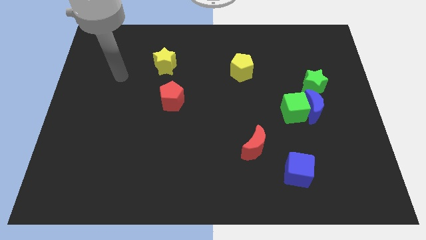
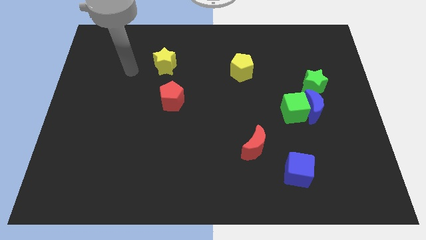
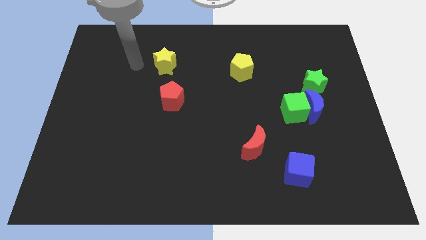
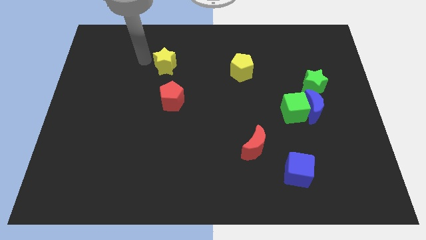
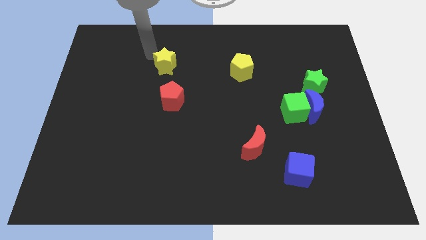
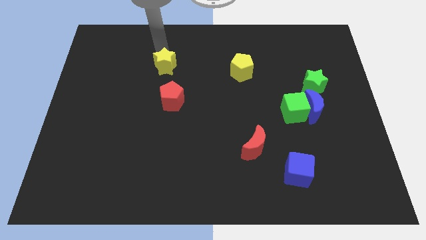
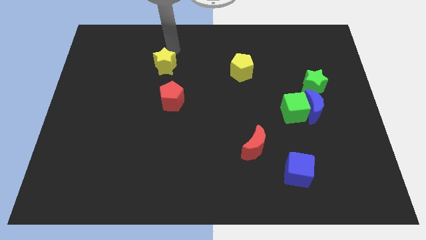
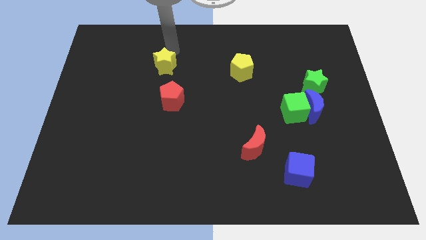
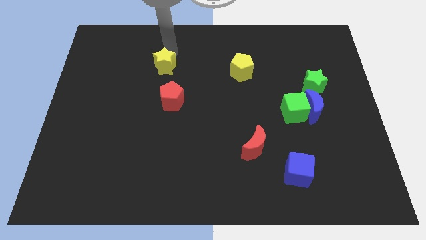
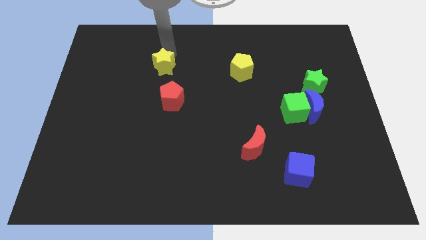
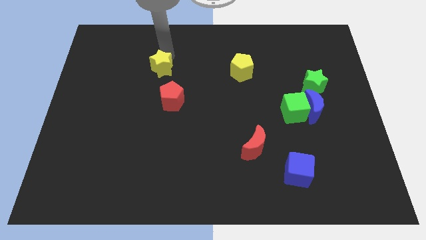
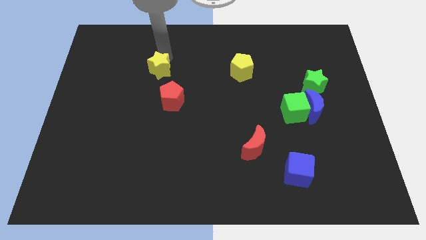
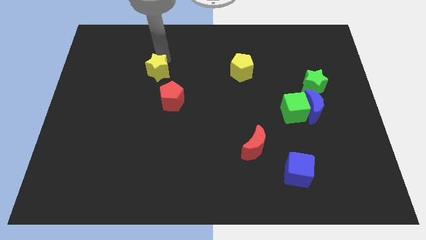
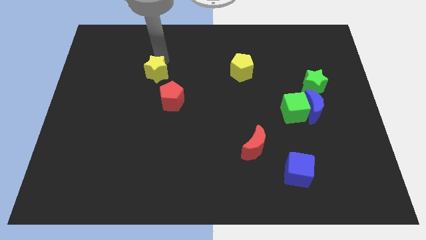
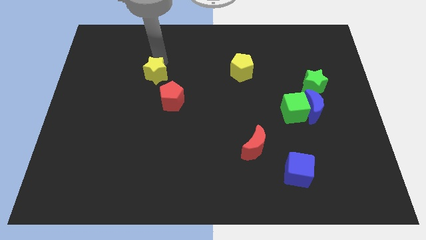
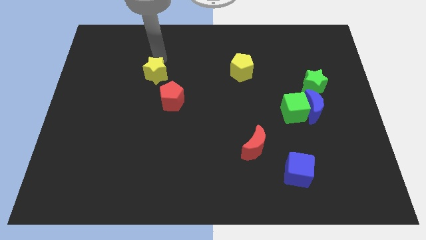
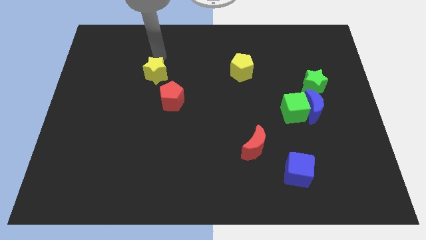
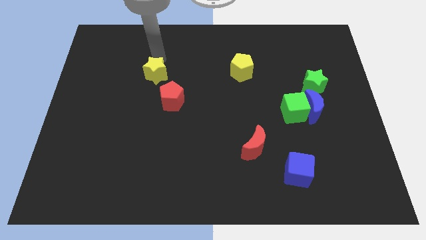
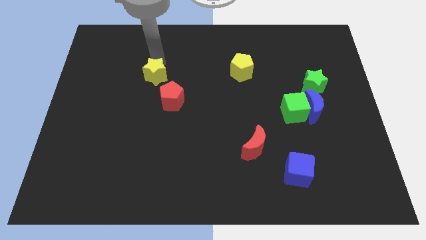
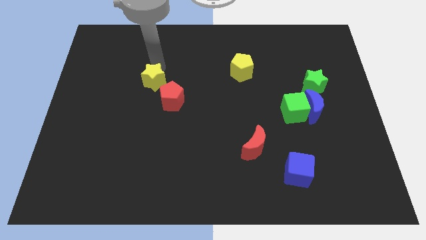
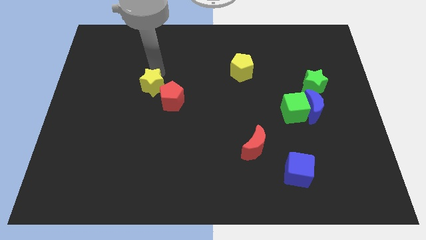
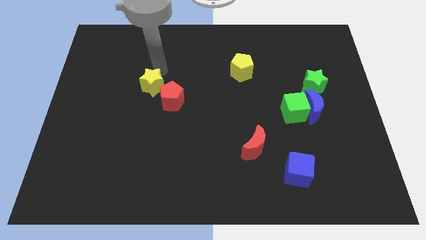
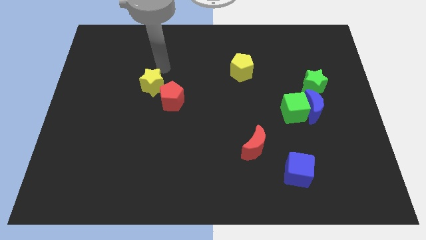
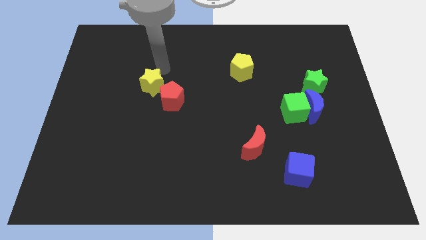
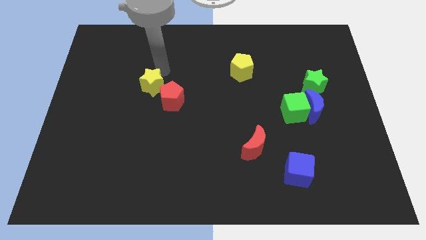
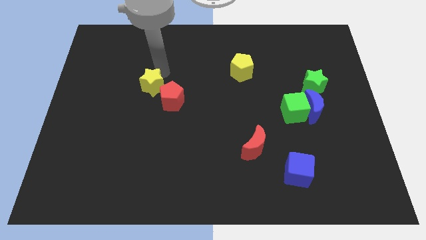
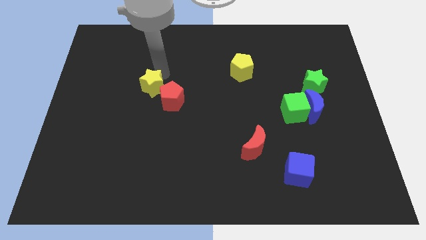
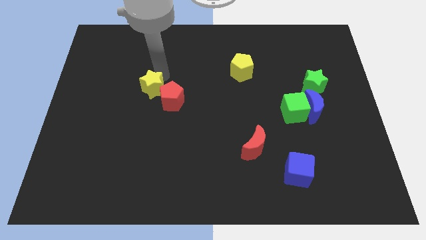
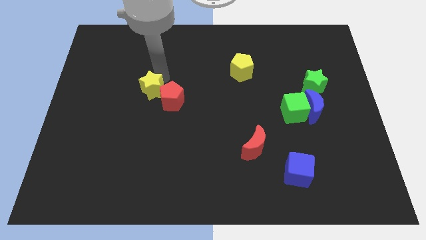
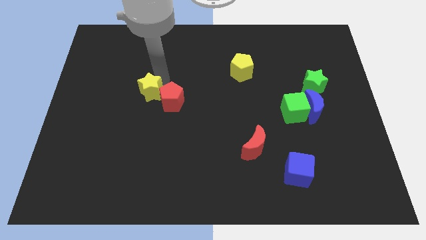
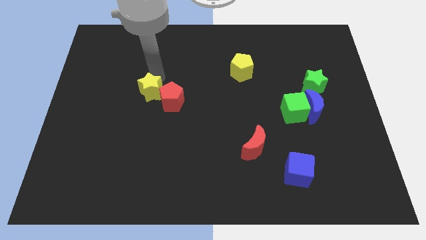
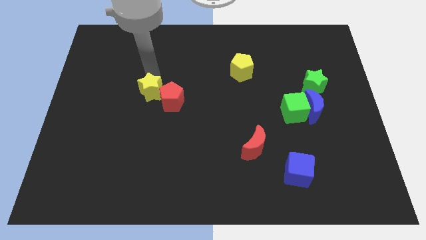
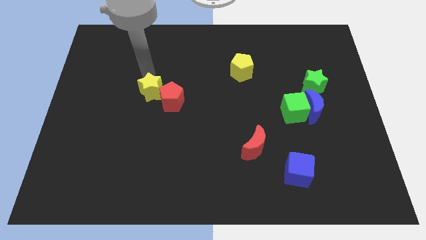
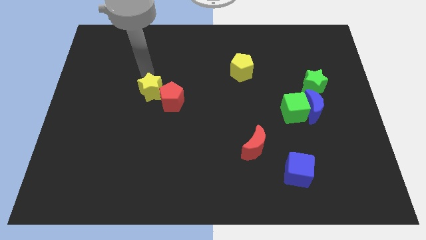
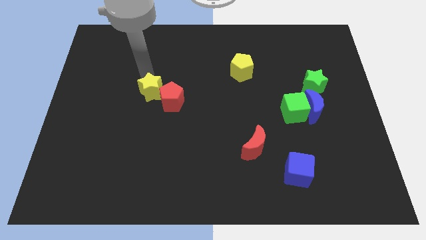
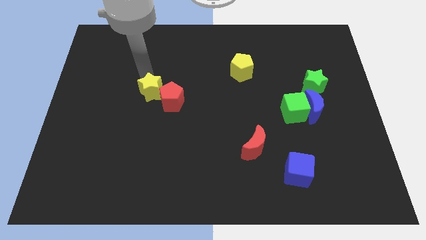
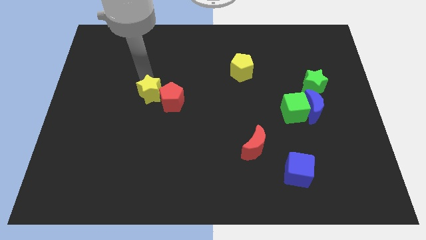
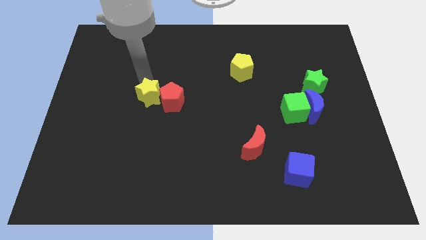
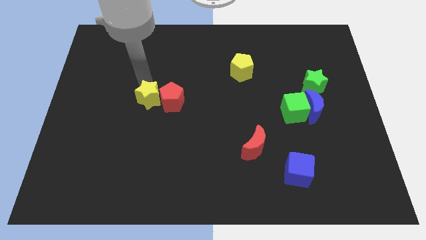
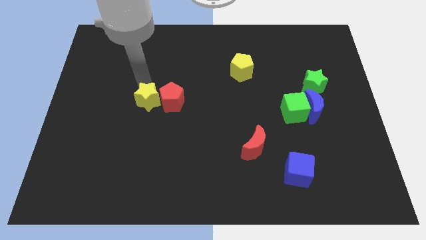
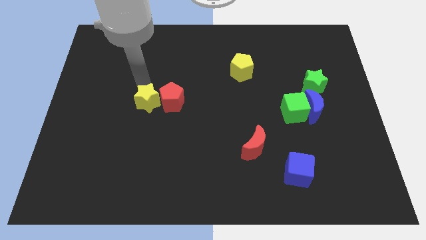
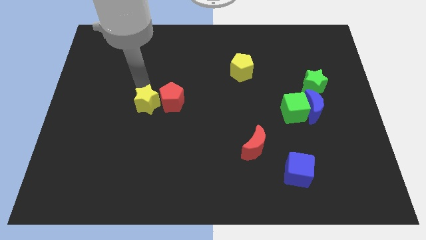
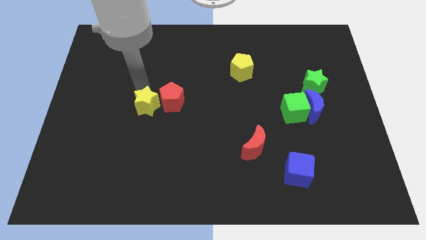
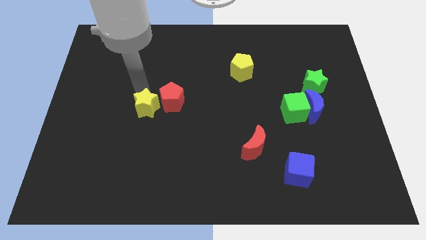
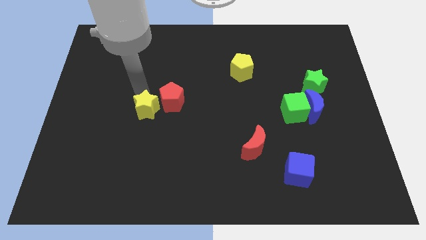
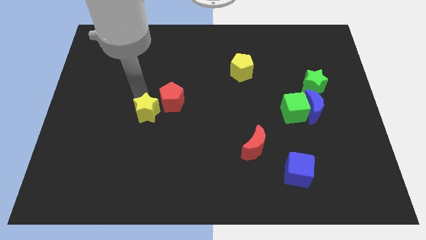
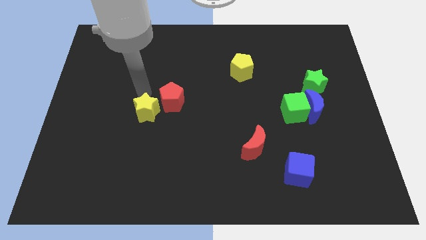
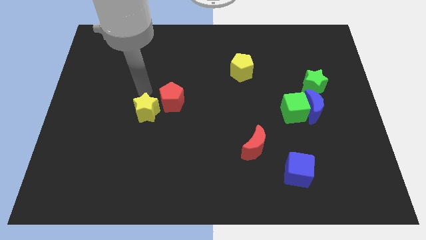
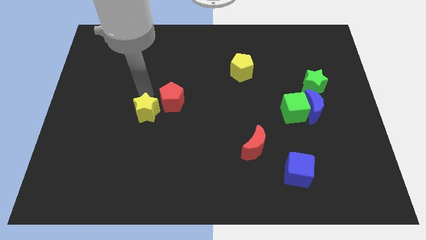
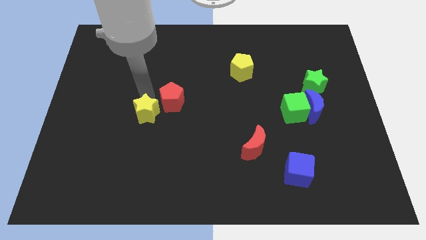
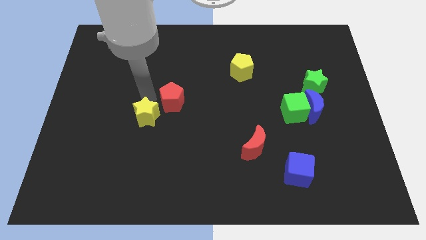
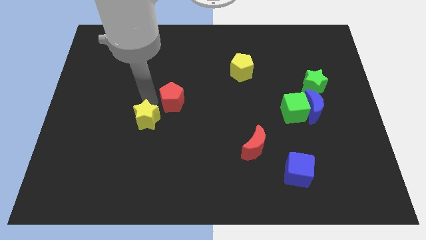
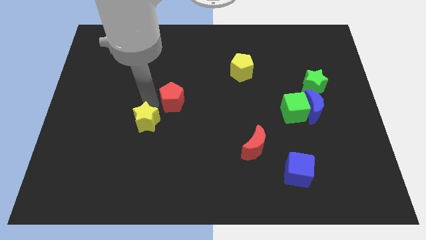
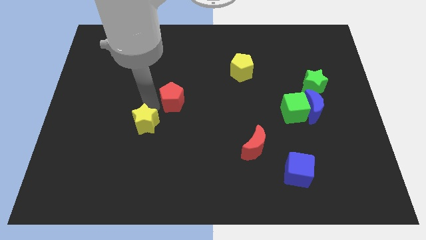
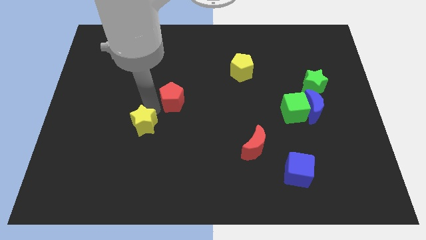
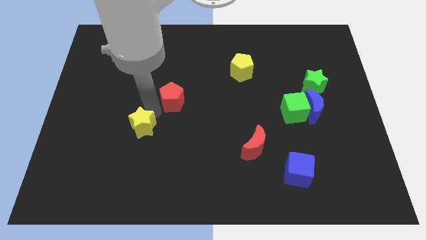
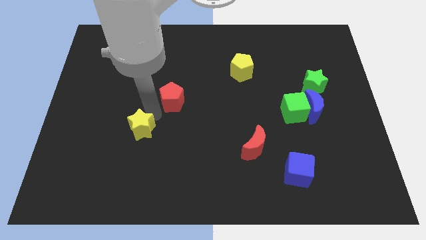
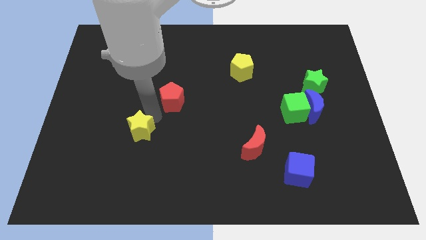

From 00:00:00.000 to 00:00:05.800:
push the yellow star downwards

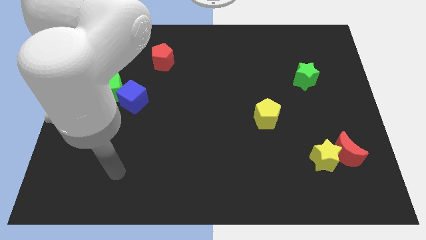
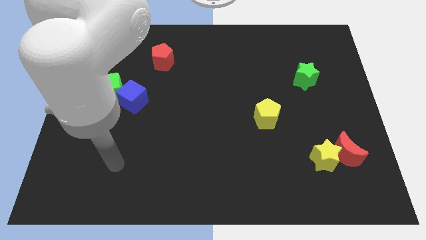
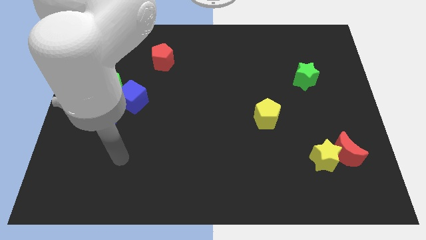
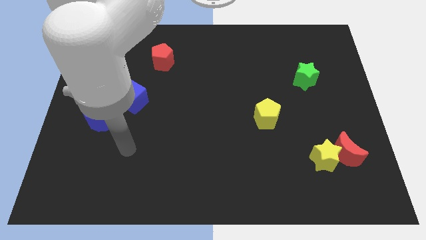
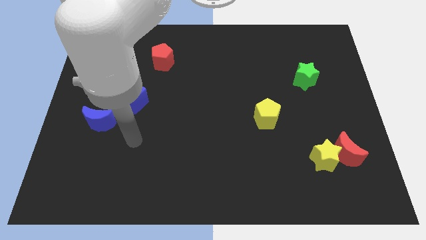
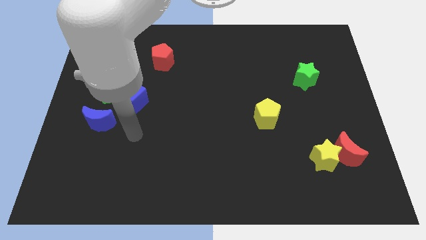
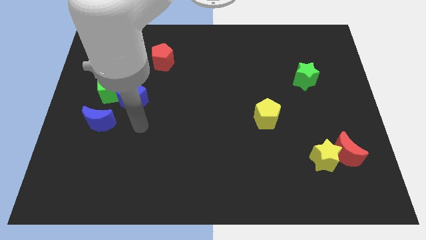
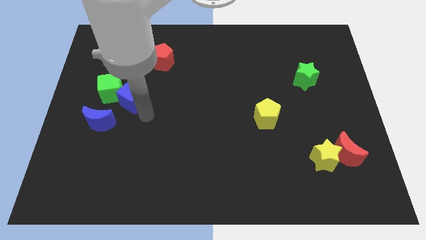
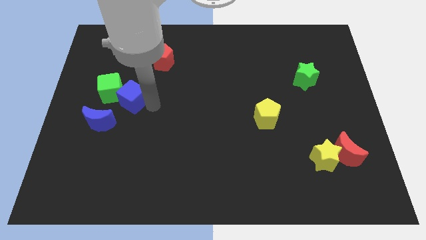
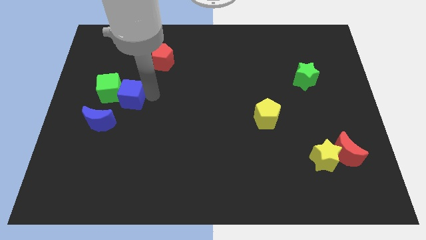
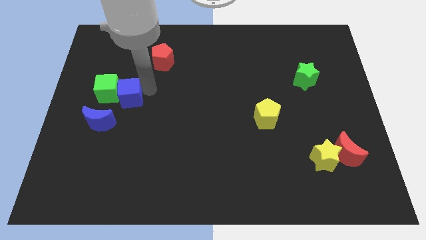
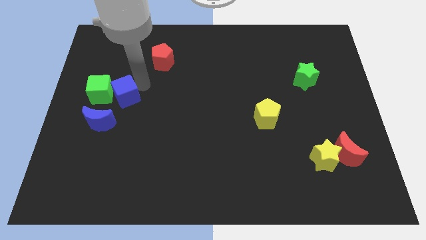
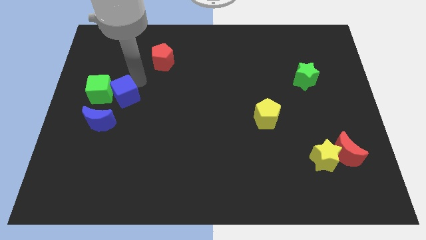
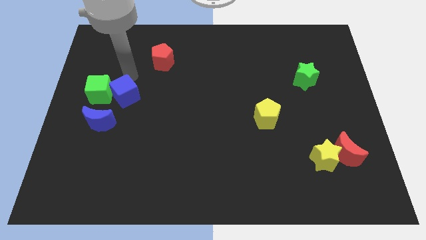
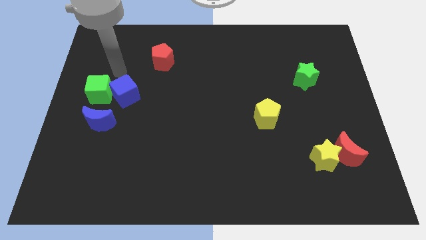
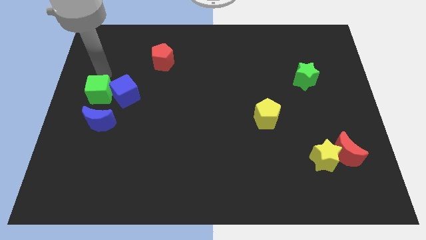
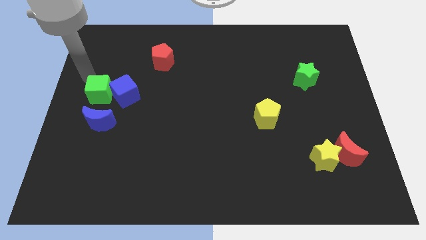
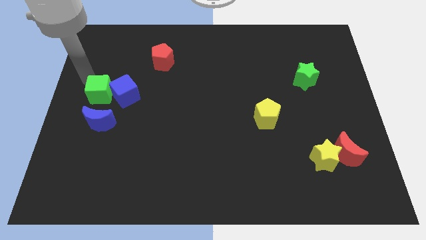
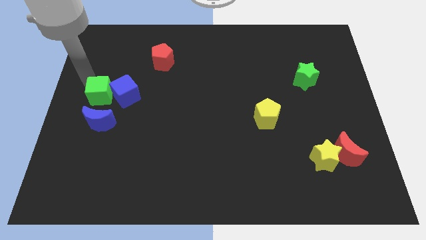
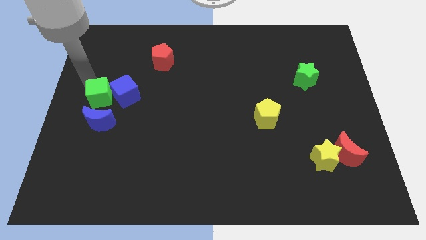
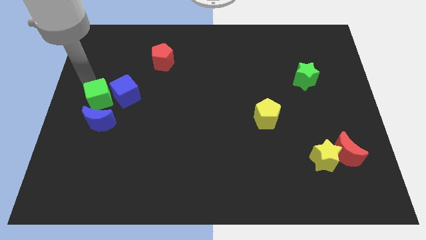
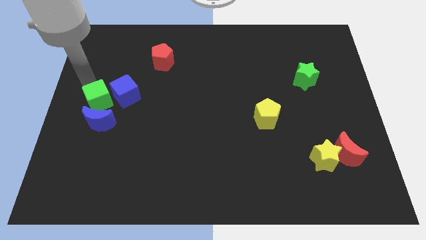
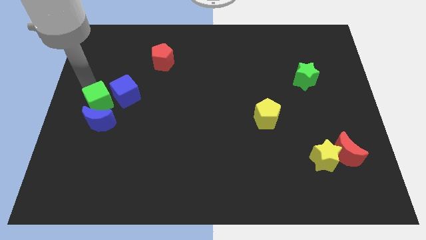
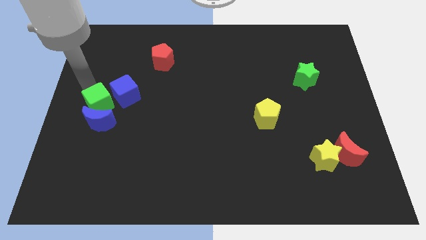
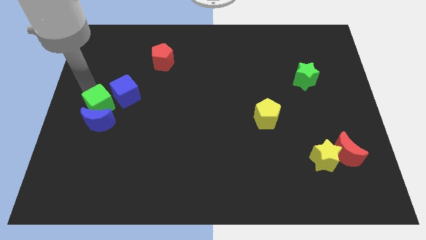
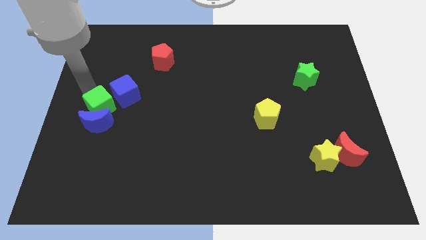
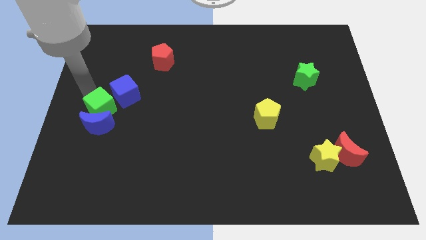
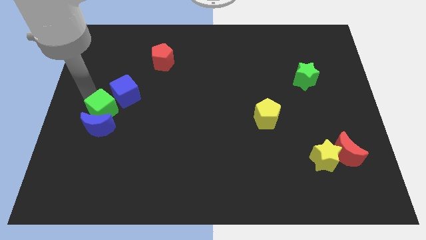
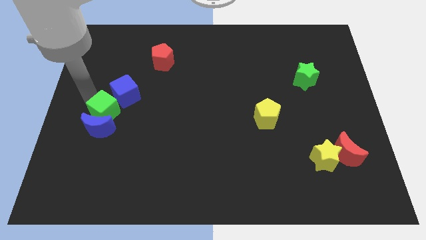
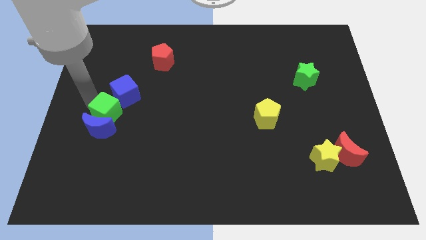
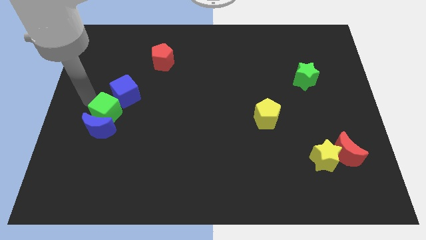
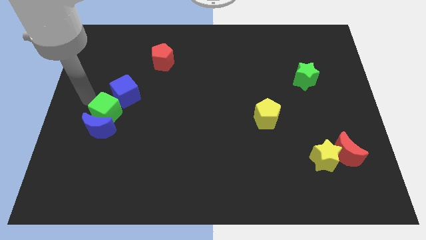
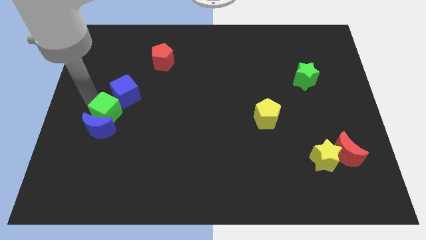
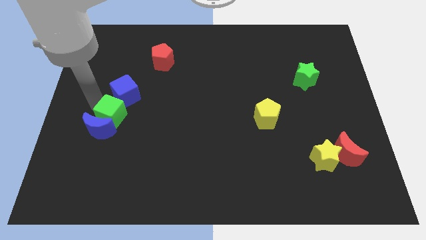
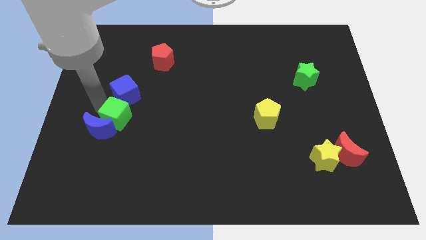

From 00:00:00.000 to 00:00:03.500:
slightly move the green cube diagonally down and to the right
